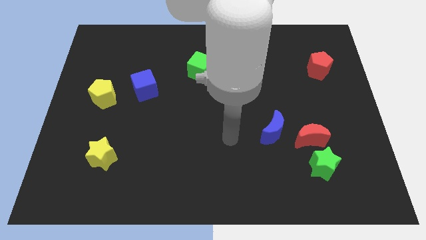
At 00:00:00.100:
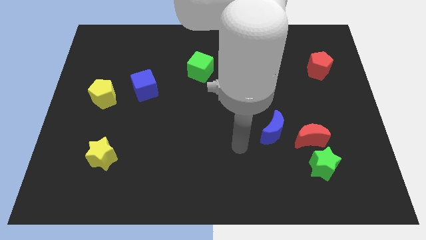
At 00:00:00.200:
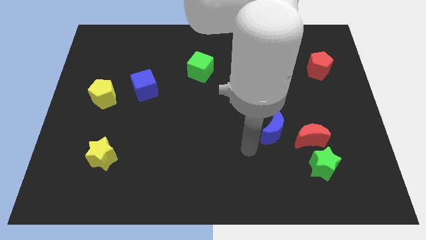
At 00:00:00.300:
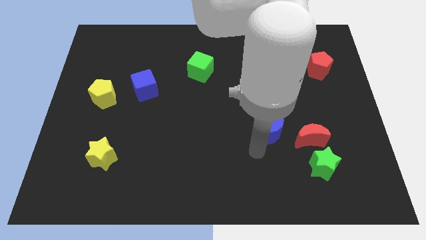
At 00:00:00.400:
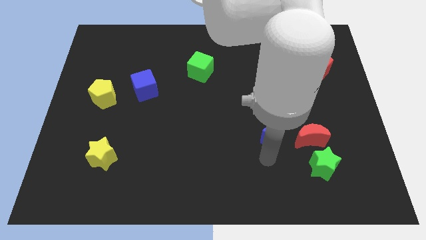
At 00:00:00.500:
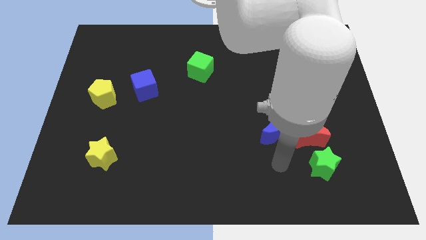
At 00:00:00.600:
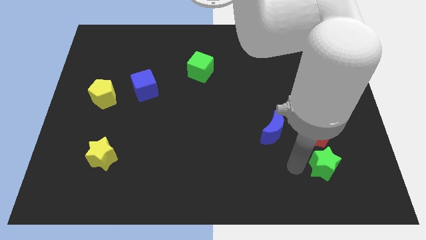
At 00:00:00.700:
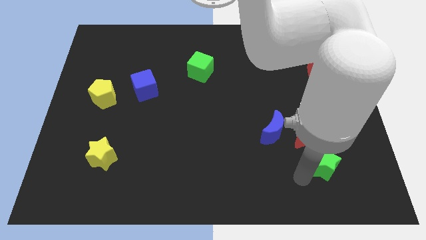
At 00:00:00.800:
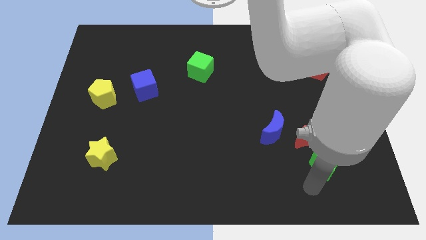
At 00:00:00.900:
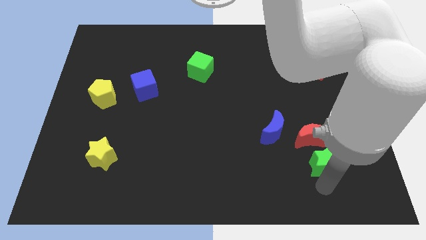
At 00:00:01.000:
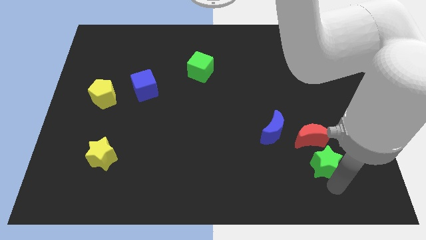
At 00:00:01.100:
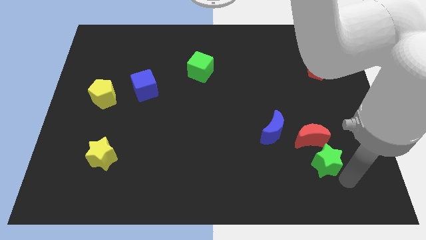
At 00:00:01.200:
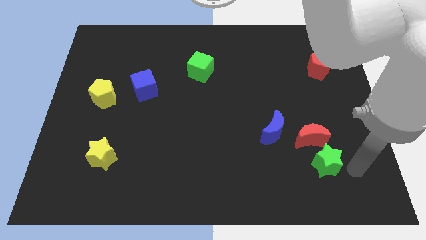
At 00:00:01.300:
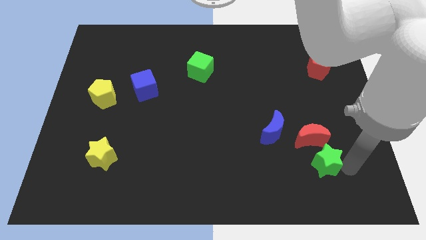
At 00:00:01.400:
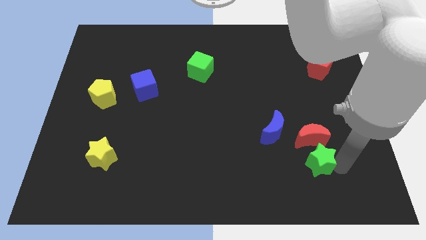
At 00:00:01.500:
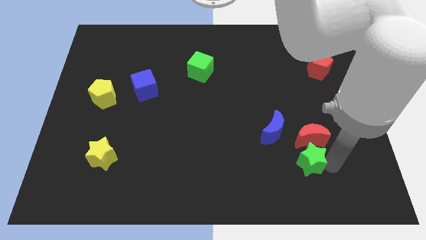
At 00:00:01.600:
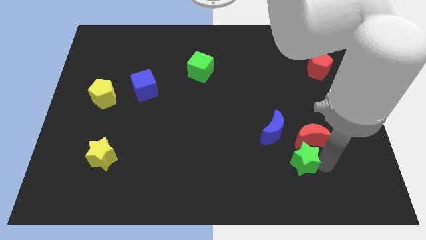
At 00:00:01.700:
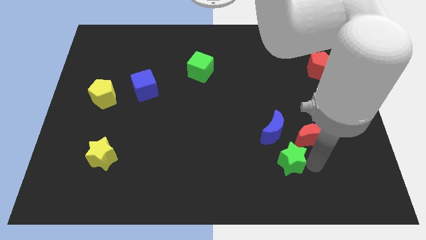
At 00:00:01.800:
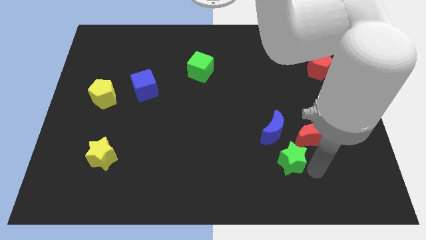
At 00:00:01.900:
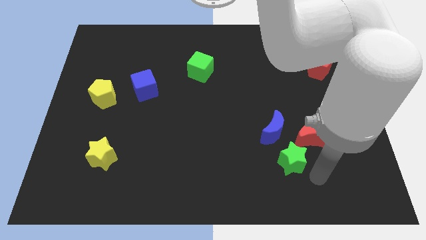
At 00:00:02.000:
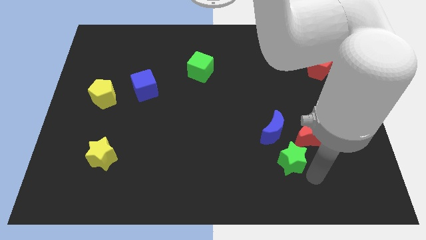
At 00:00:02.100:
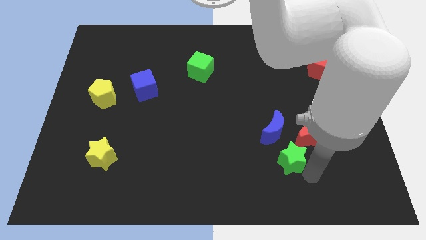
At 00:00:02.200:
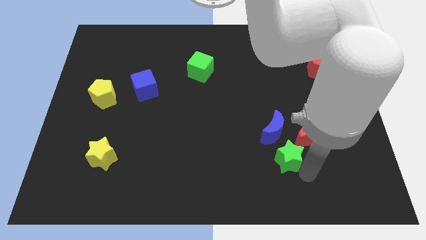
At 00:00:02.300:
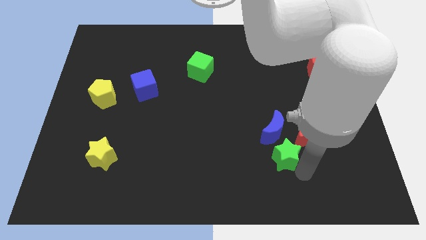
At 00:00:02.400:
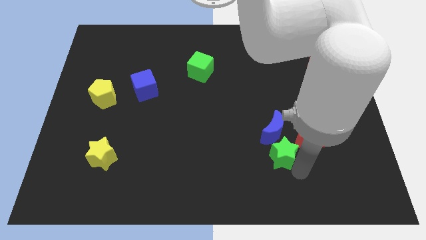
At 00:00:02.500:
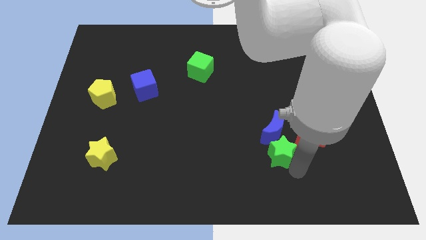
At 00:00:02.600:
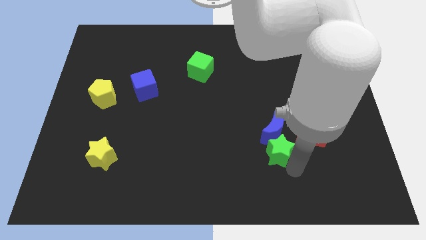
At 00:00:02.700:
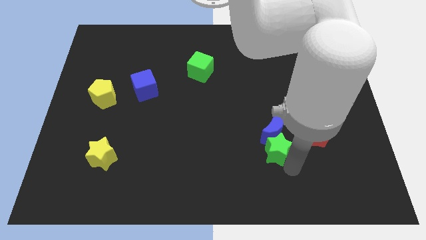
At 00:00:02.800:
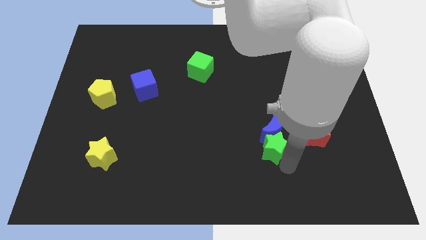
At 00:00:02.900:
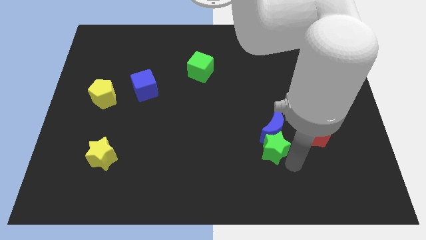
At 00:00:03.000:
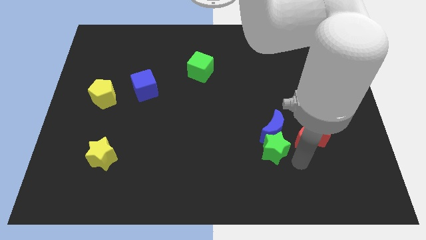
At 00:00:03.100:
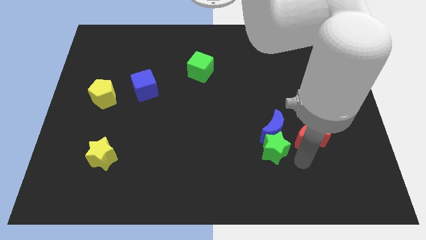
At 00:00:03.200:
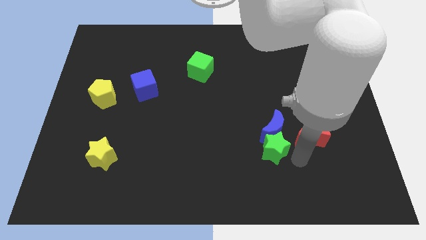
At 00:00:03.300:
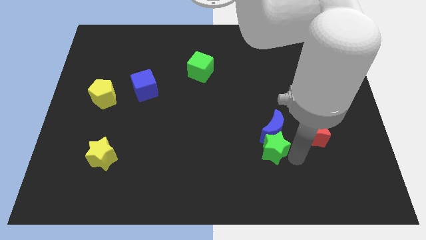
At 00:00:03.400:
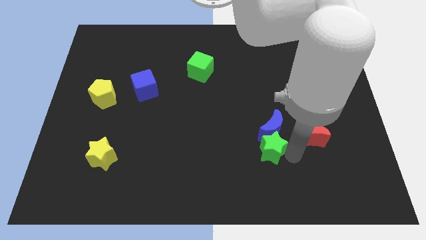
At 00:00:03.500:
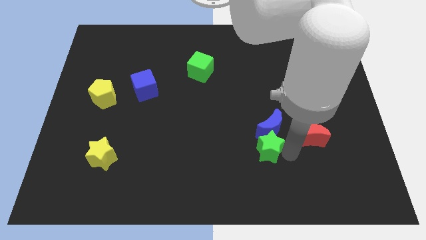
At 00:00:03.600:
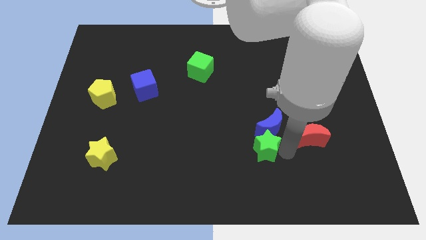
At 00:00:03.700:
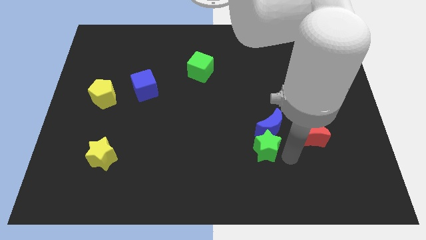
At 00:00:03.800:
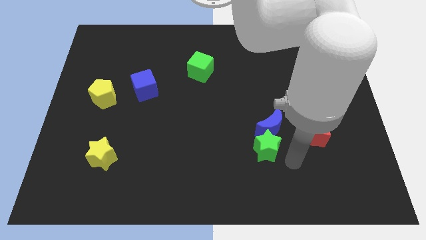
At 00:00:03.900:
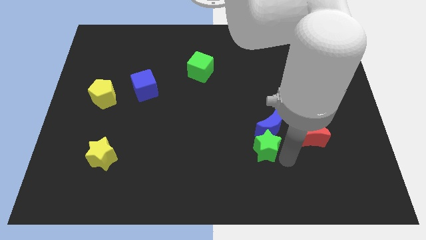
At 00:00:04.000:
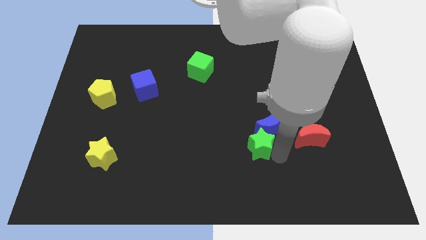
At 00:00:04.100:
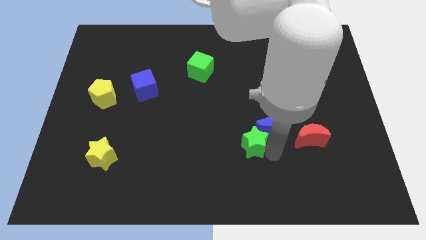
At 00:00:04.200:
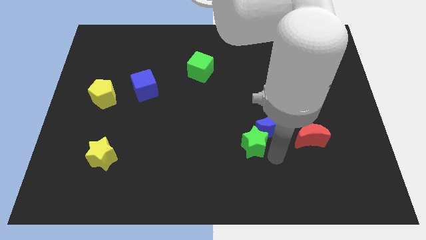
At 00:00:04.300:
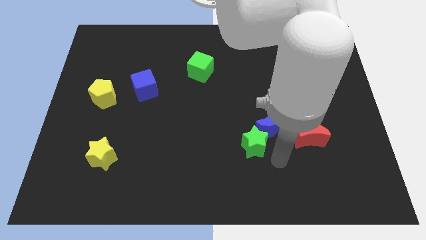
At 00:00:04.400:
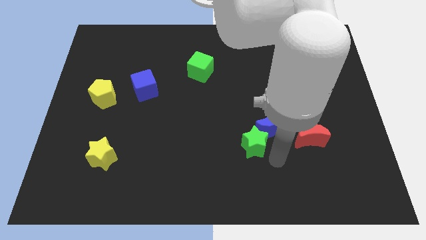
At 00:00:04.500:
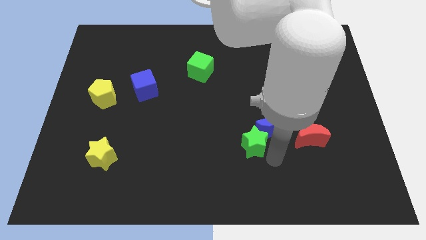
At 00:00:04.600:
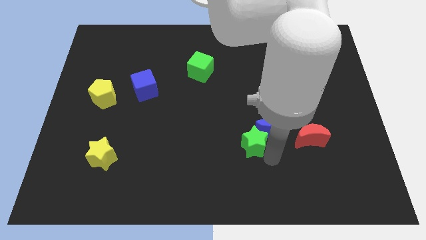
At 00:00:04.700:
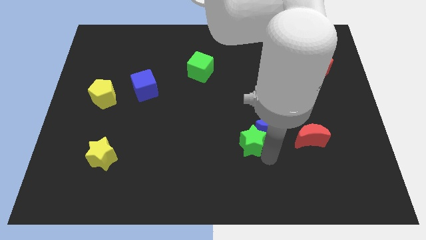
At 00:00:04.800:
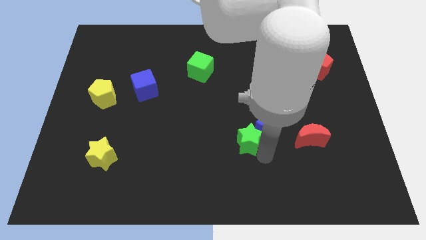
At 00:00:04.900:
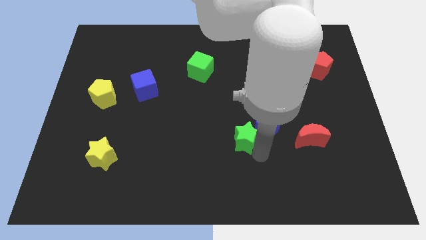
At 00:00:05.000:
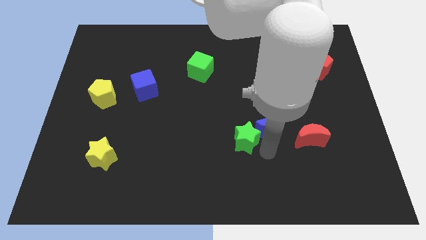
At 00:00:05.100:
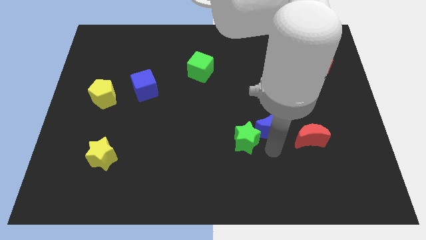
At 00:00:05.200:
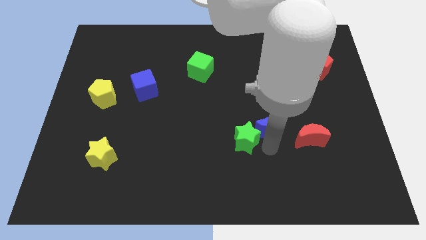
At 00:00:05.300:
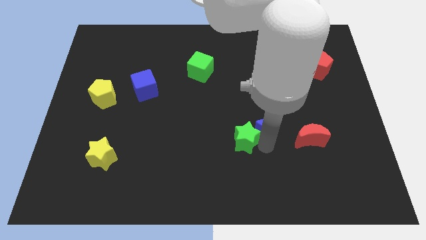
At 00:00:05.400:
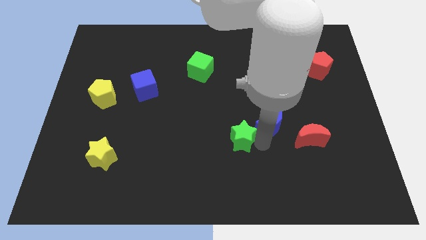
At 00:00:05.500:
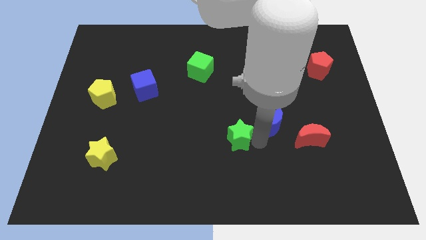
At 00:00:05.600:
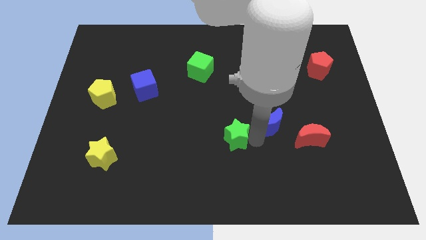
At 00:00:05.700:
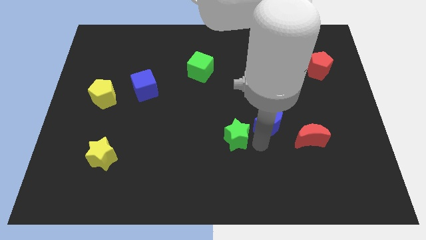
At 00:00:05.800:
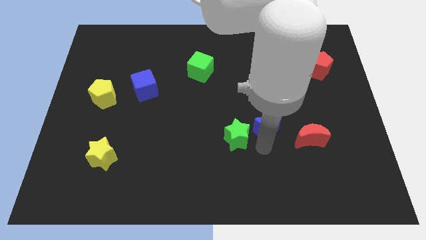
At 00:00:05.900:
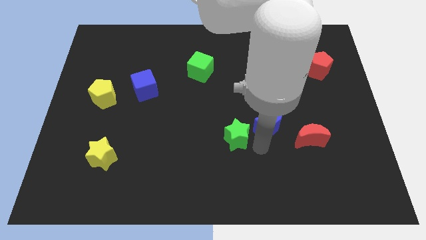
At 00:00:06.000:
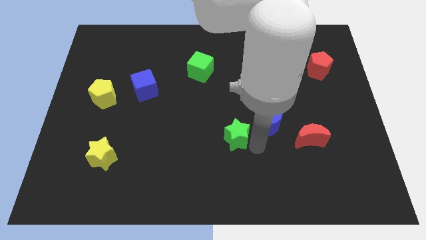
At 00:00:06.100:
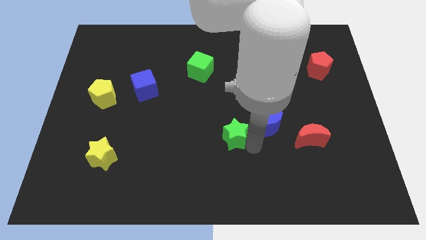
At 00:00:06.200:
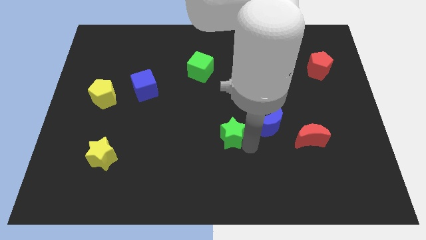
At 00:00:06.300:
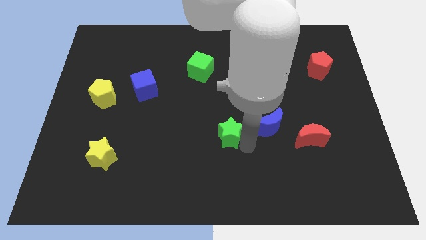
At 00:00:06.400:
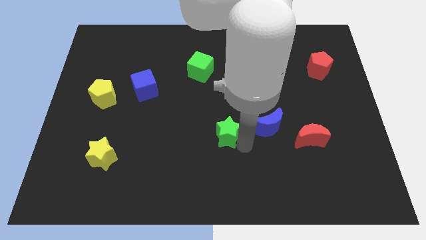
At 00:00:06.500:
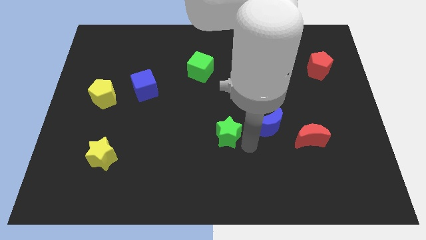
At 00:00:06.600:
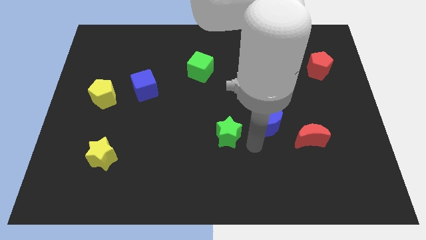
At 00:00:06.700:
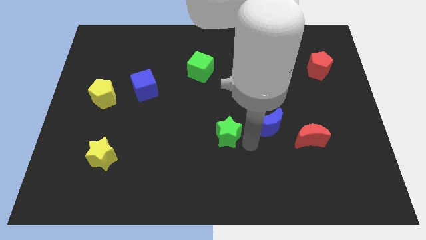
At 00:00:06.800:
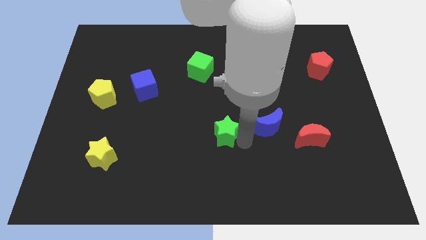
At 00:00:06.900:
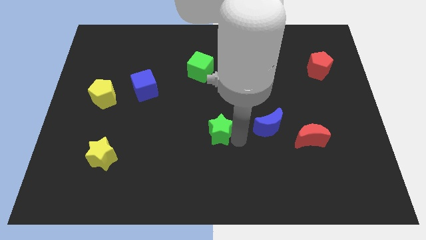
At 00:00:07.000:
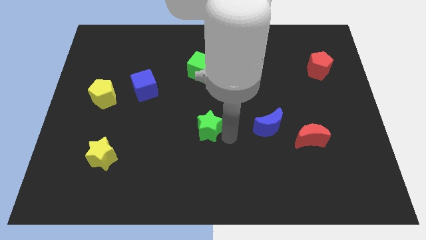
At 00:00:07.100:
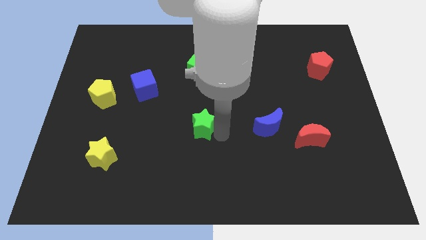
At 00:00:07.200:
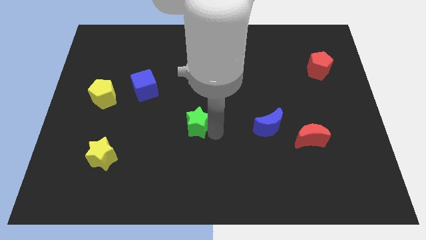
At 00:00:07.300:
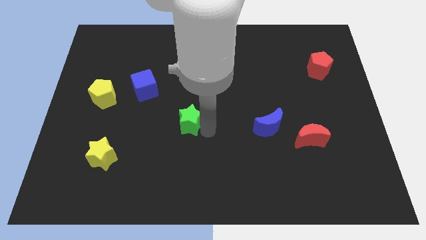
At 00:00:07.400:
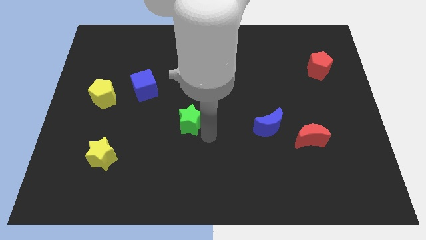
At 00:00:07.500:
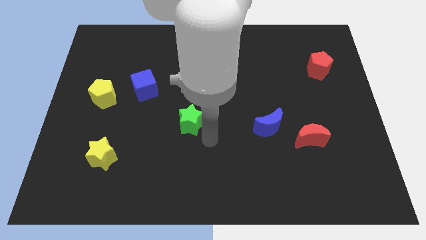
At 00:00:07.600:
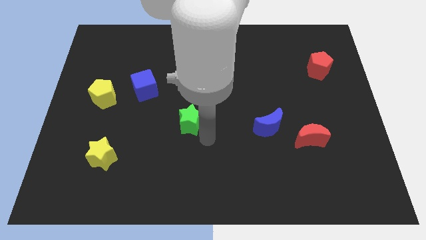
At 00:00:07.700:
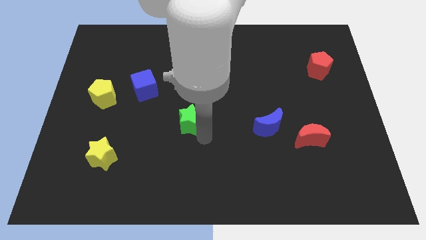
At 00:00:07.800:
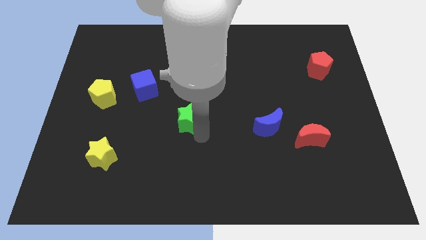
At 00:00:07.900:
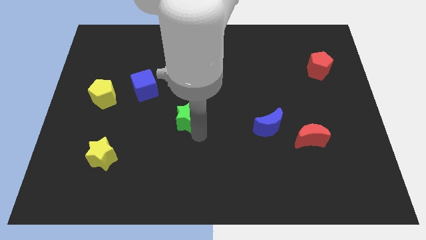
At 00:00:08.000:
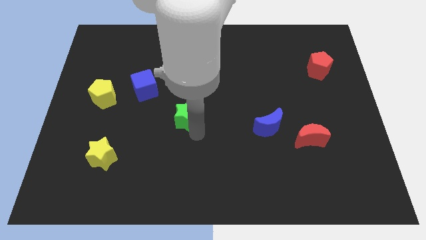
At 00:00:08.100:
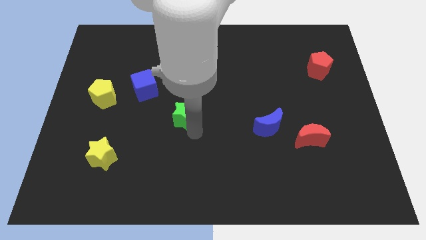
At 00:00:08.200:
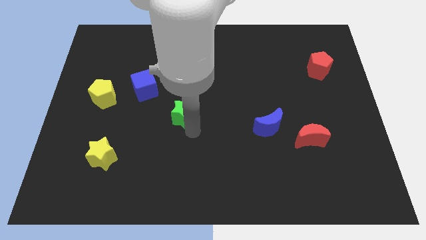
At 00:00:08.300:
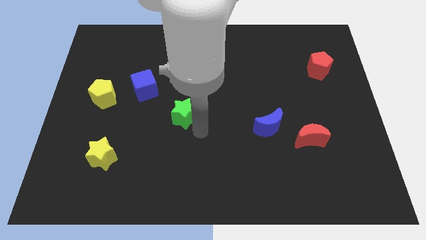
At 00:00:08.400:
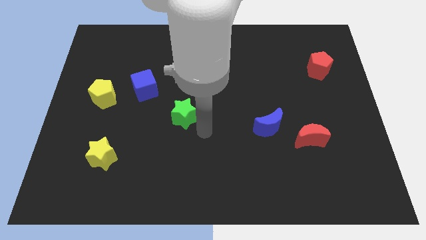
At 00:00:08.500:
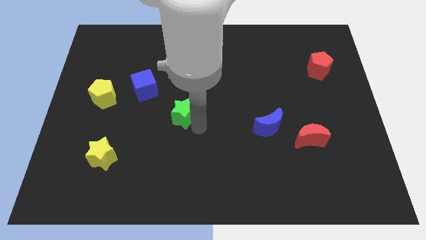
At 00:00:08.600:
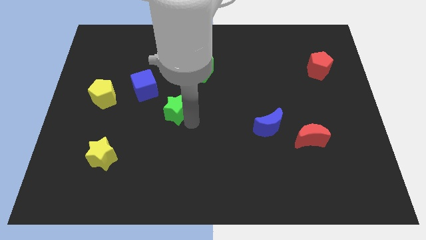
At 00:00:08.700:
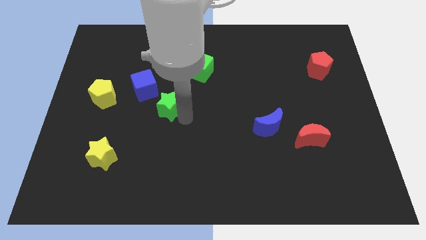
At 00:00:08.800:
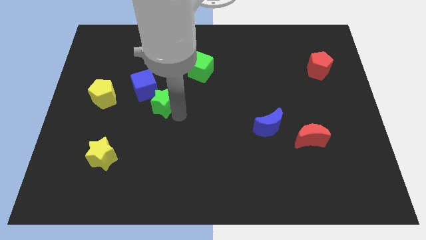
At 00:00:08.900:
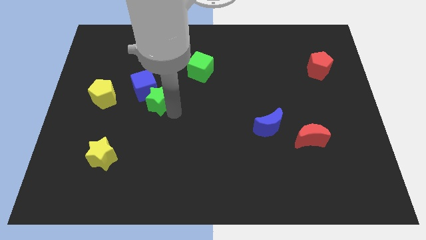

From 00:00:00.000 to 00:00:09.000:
move the green star next to the blue cube
